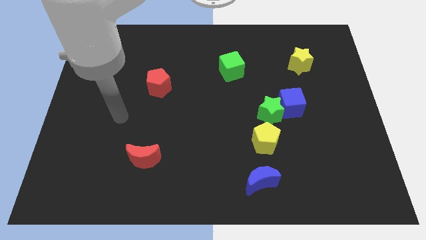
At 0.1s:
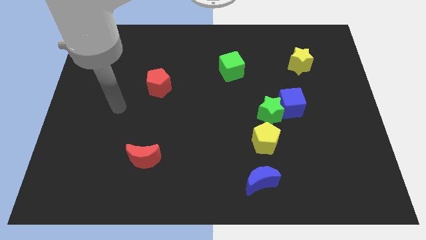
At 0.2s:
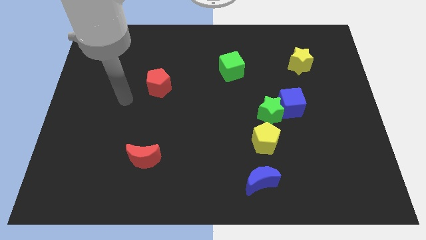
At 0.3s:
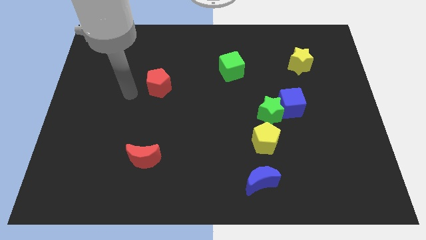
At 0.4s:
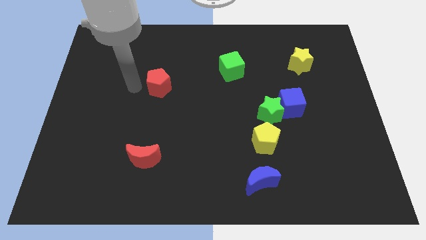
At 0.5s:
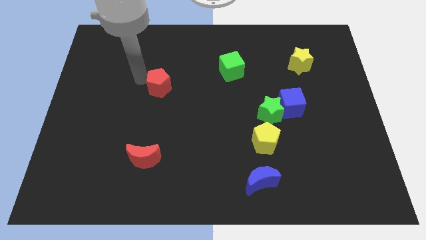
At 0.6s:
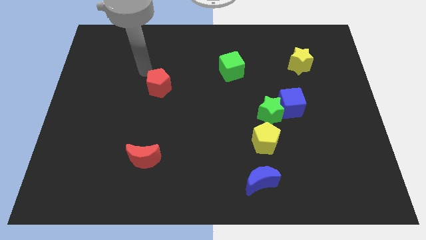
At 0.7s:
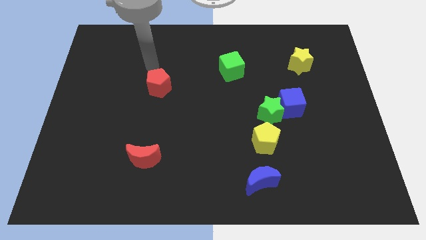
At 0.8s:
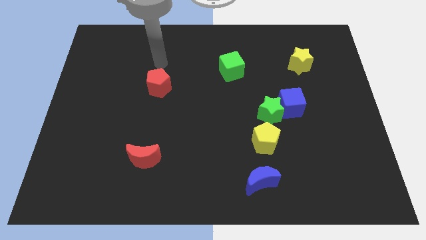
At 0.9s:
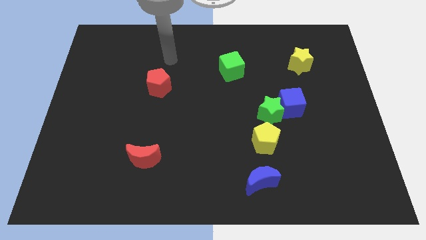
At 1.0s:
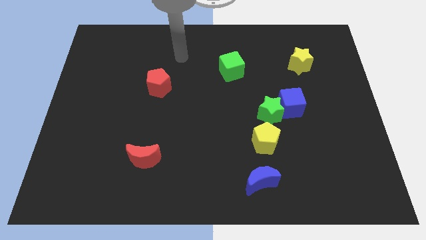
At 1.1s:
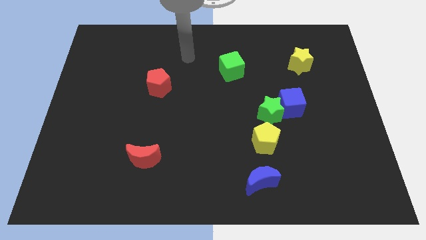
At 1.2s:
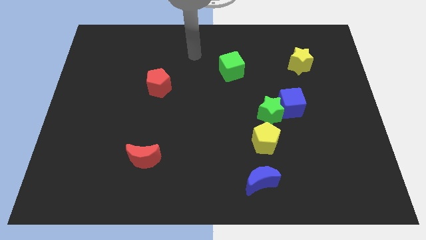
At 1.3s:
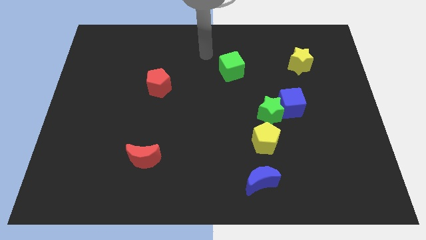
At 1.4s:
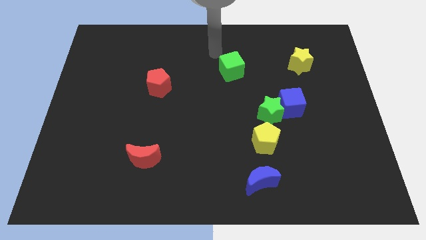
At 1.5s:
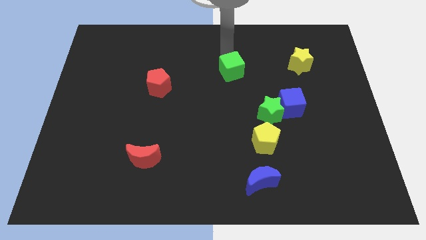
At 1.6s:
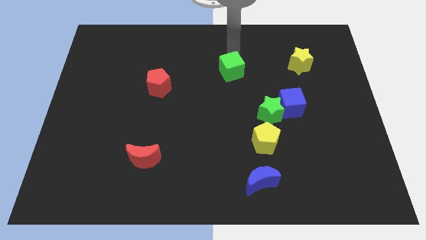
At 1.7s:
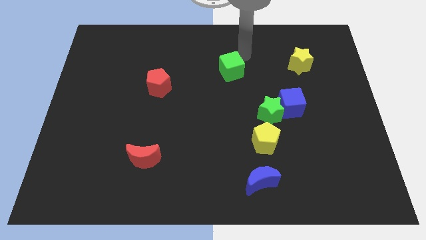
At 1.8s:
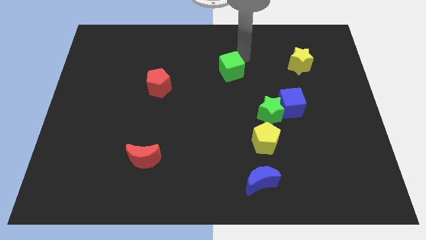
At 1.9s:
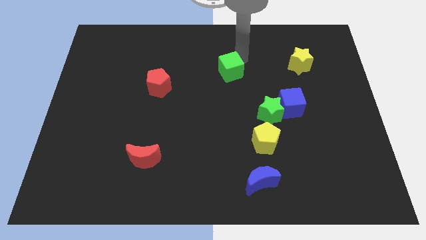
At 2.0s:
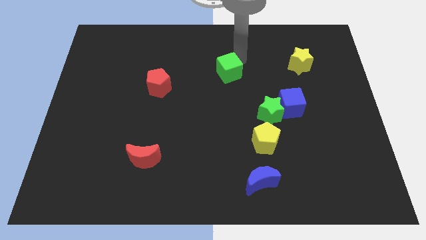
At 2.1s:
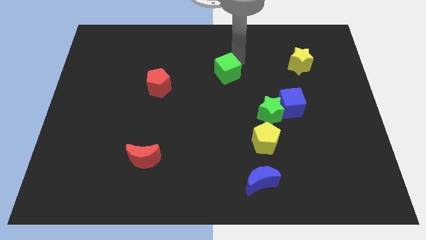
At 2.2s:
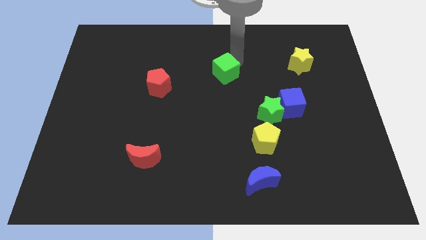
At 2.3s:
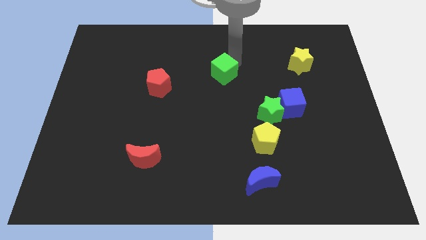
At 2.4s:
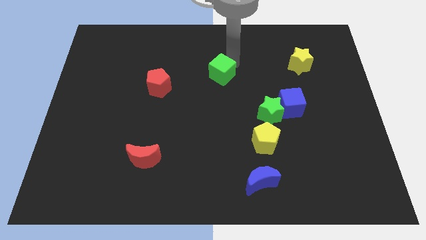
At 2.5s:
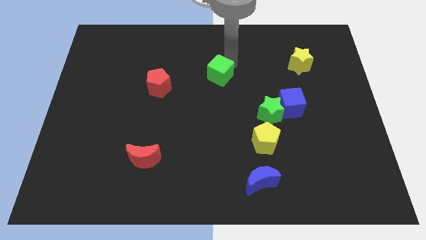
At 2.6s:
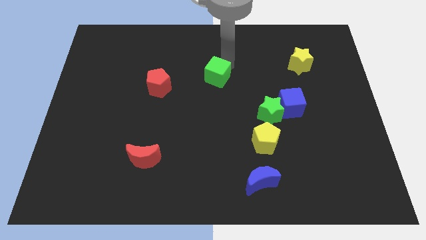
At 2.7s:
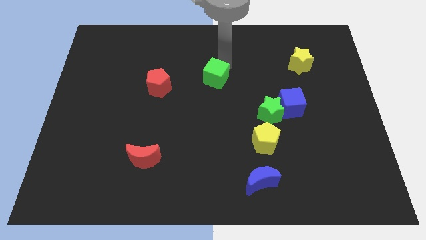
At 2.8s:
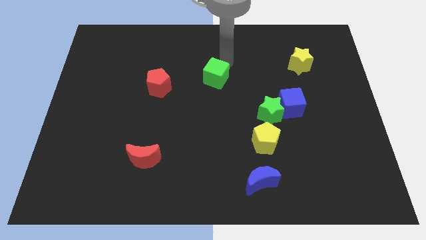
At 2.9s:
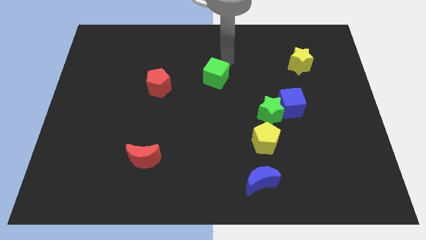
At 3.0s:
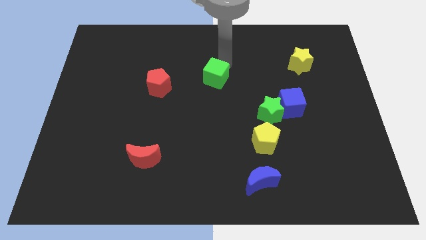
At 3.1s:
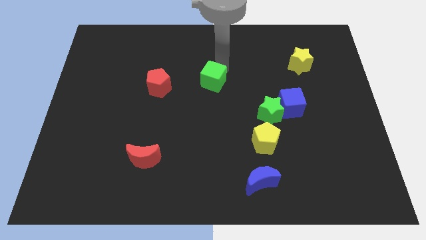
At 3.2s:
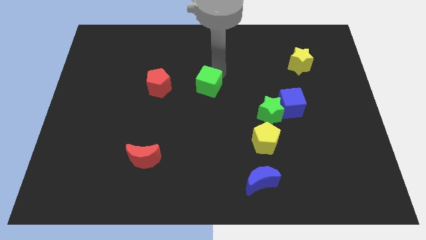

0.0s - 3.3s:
move the green cube down and left a little

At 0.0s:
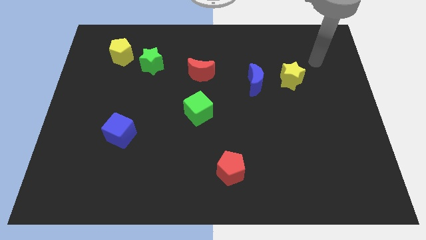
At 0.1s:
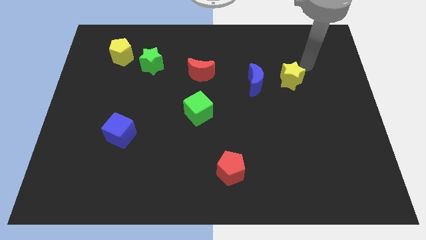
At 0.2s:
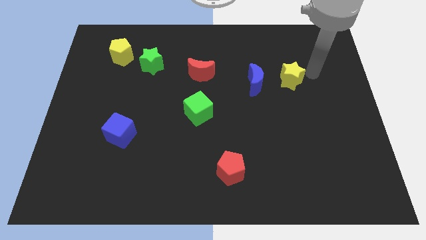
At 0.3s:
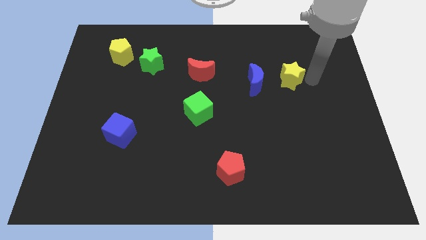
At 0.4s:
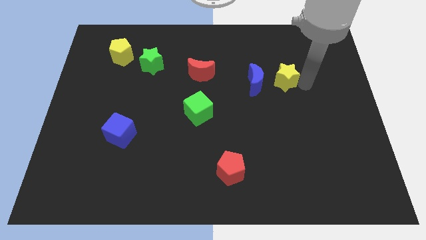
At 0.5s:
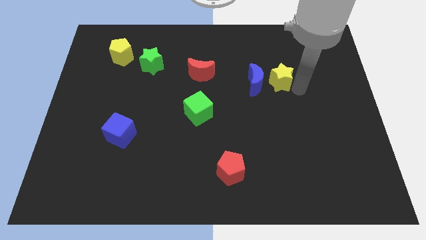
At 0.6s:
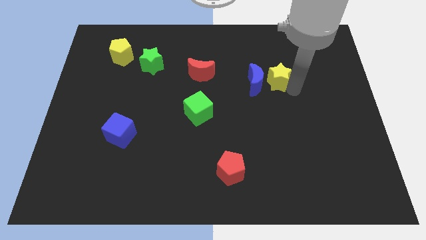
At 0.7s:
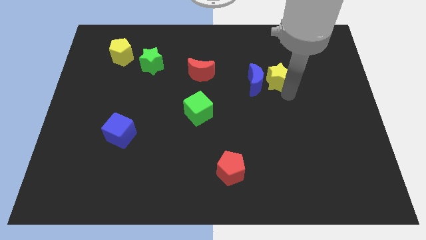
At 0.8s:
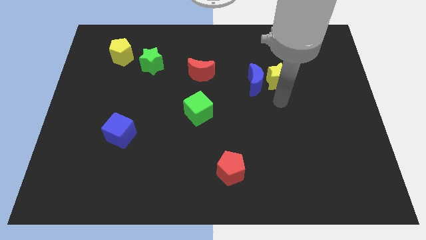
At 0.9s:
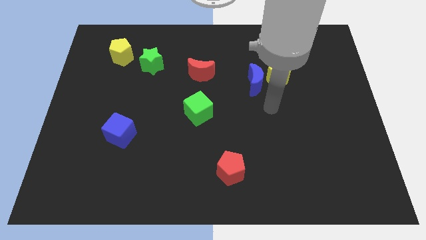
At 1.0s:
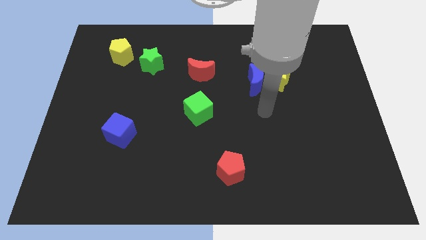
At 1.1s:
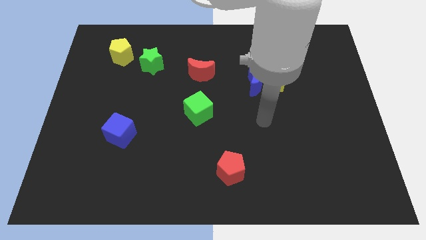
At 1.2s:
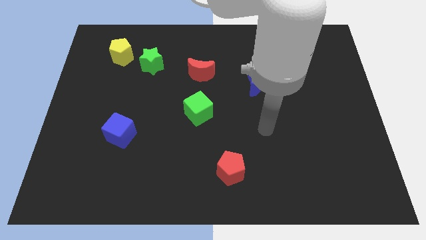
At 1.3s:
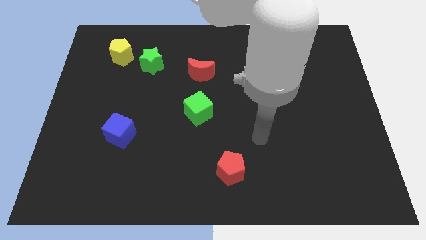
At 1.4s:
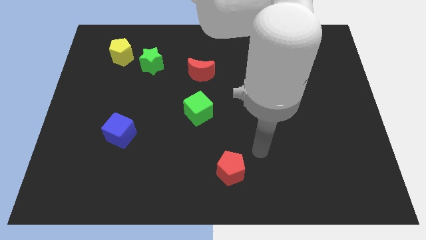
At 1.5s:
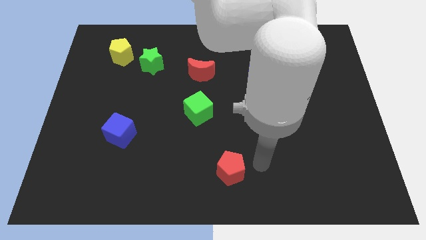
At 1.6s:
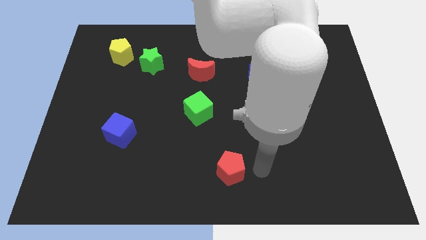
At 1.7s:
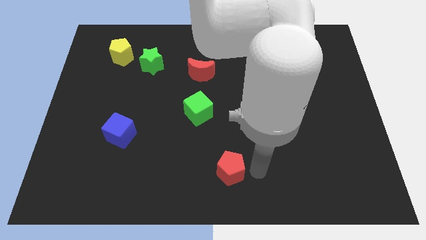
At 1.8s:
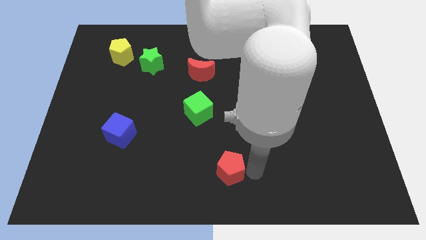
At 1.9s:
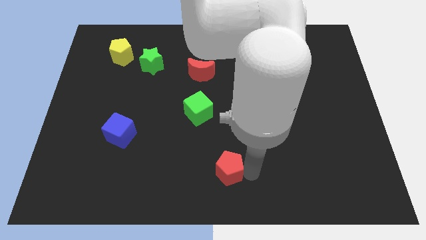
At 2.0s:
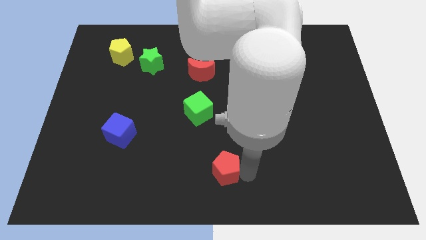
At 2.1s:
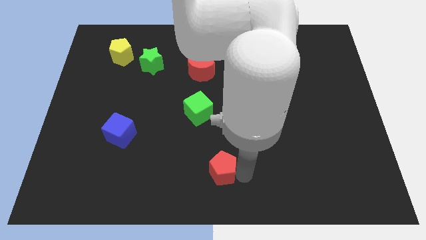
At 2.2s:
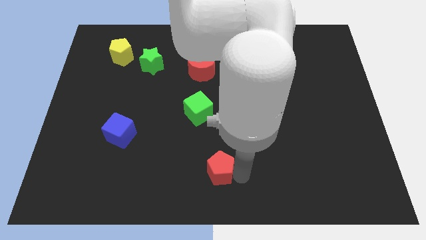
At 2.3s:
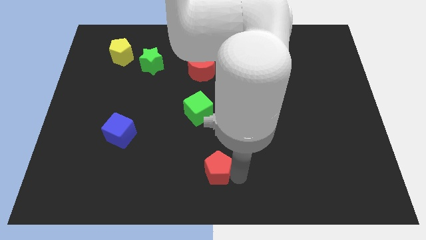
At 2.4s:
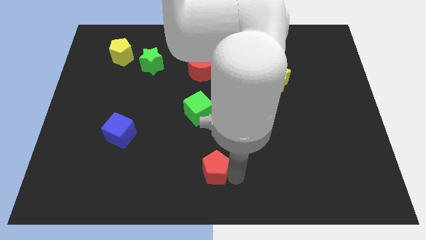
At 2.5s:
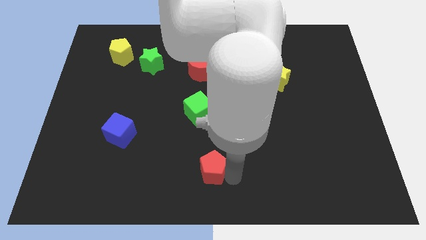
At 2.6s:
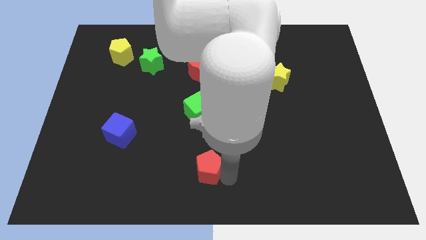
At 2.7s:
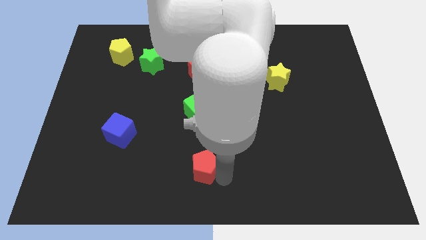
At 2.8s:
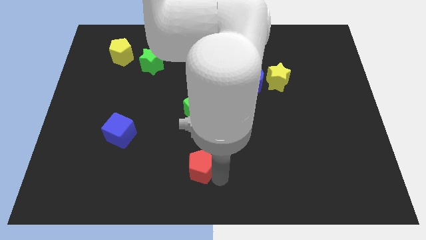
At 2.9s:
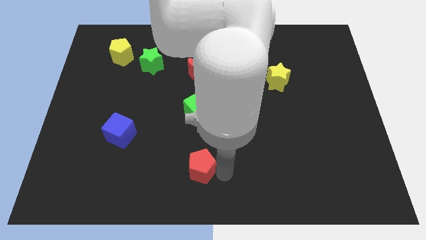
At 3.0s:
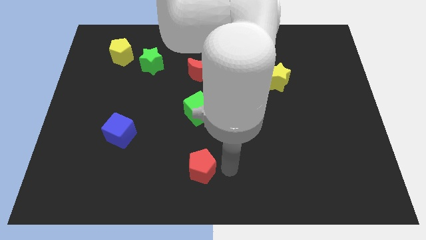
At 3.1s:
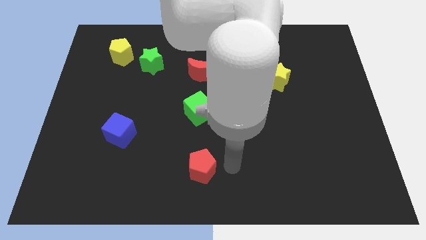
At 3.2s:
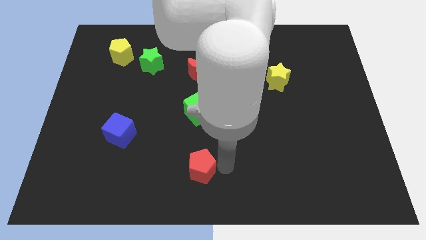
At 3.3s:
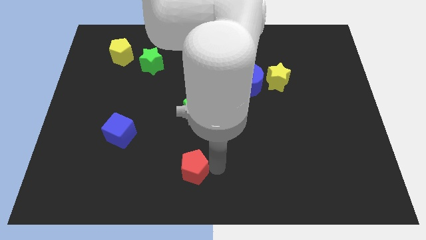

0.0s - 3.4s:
slightly move the red pentagon left

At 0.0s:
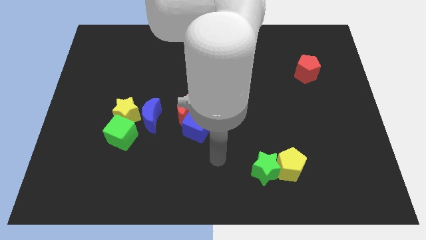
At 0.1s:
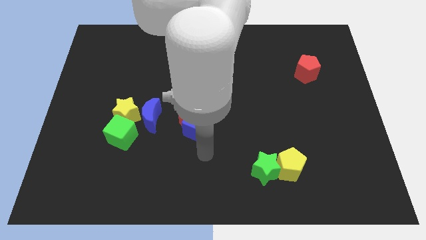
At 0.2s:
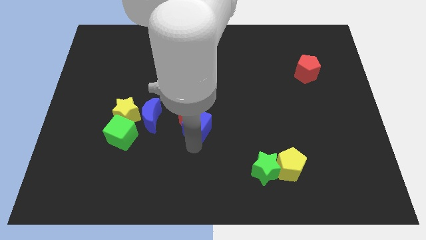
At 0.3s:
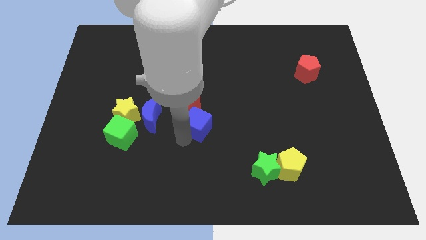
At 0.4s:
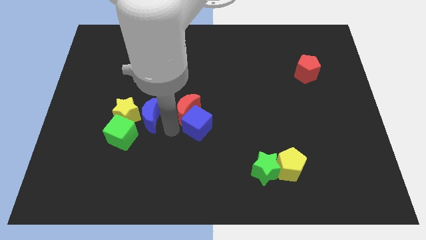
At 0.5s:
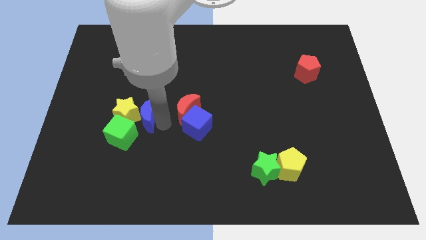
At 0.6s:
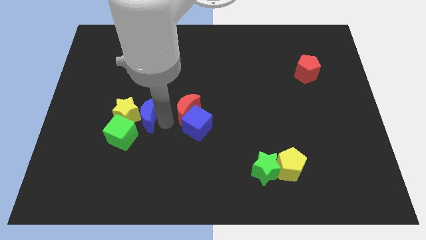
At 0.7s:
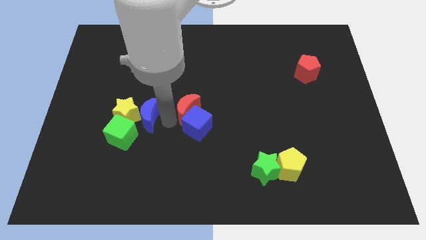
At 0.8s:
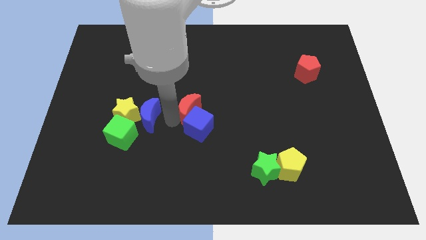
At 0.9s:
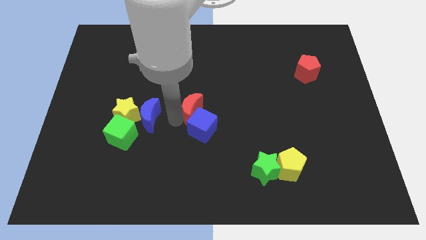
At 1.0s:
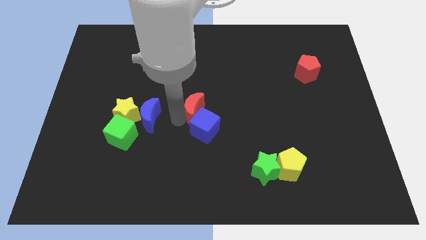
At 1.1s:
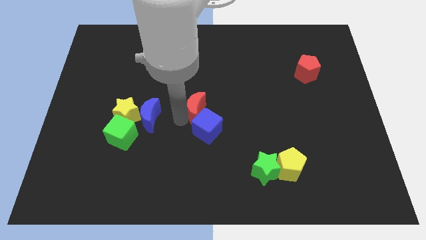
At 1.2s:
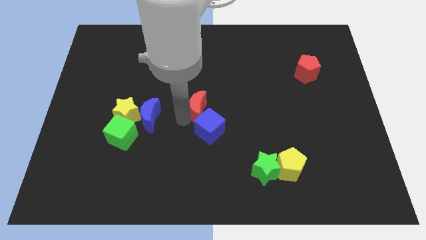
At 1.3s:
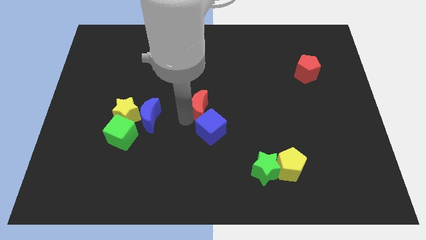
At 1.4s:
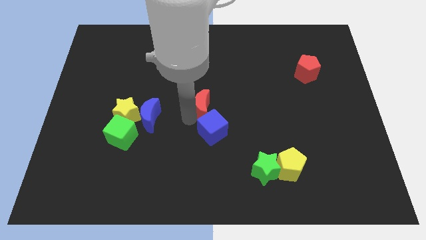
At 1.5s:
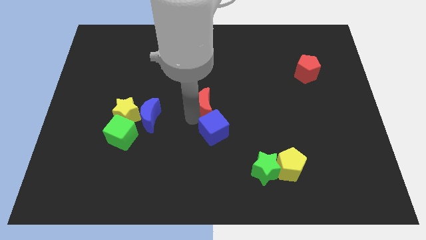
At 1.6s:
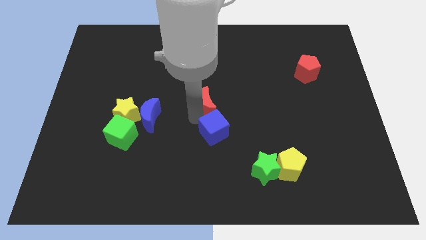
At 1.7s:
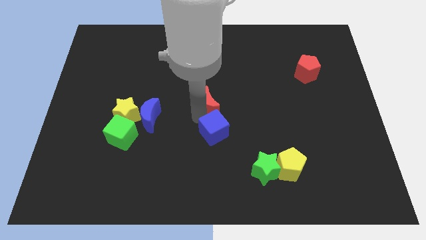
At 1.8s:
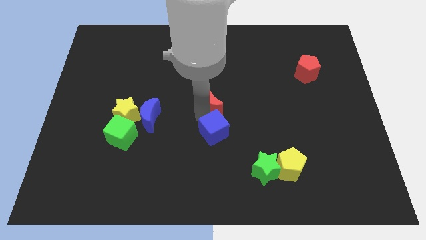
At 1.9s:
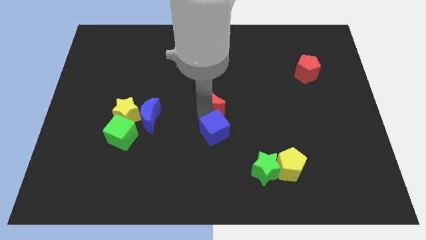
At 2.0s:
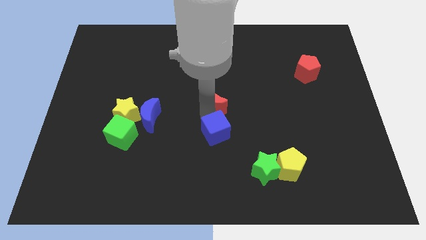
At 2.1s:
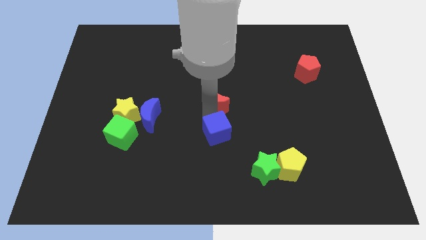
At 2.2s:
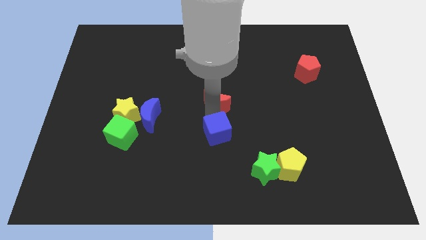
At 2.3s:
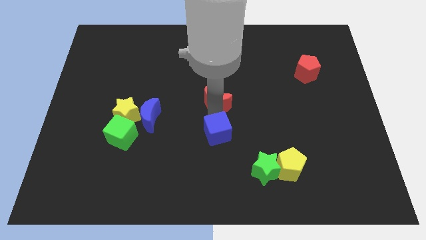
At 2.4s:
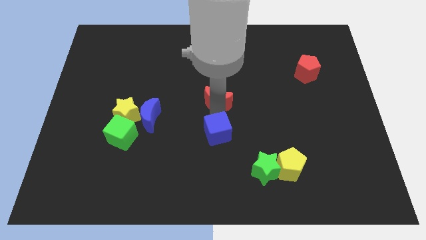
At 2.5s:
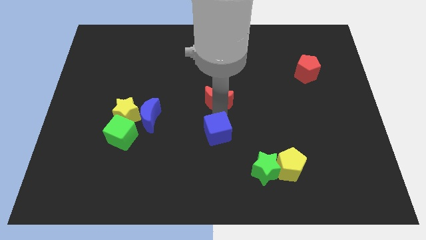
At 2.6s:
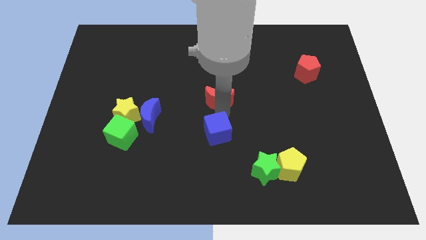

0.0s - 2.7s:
push the red moon a little upwards and right diagonally
